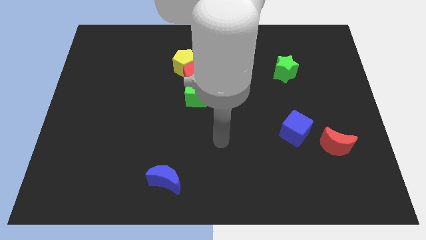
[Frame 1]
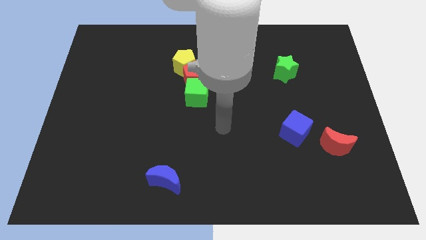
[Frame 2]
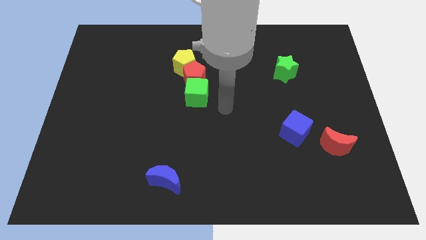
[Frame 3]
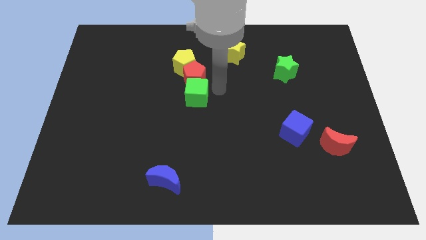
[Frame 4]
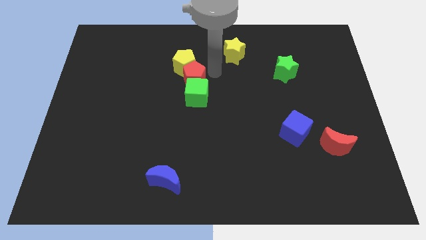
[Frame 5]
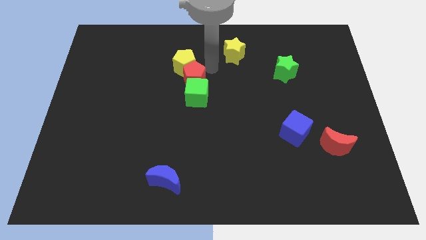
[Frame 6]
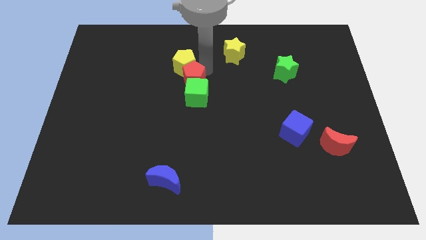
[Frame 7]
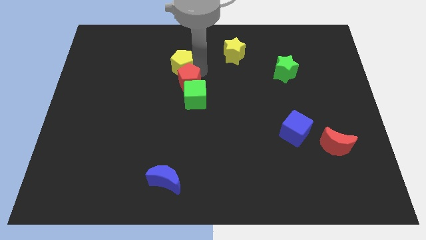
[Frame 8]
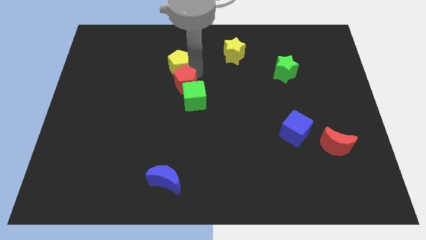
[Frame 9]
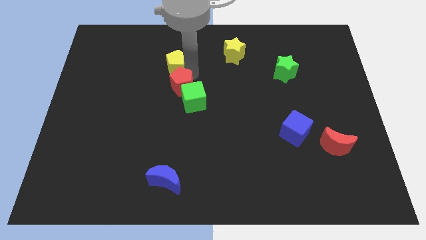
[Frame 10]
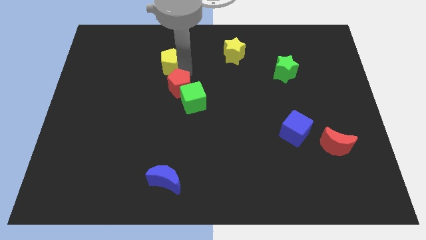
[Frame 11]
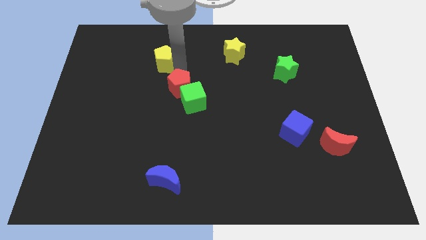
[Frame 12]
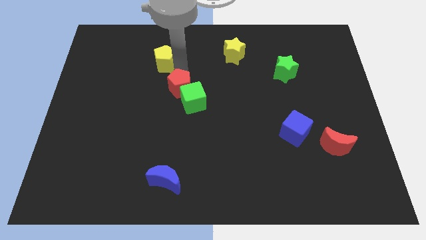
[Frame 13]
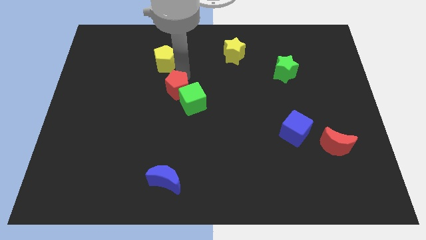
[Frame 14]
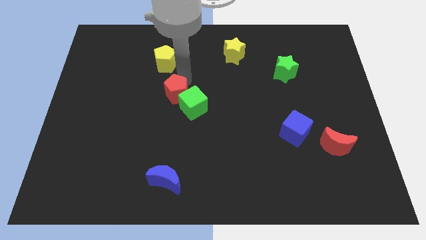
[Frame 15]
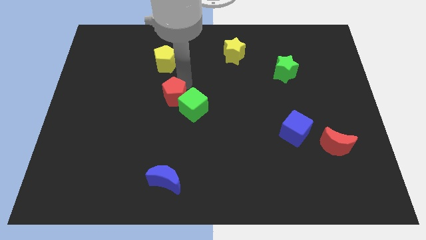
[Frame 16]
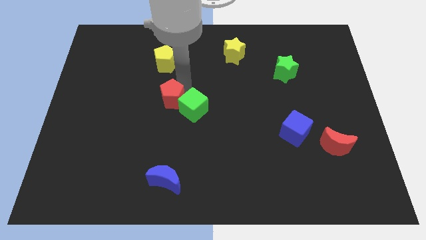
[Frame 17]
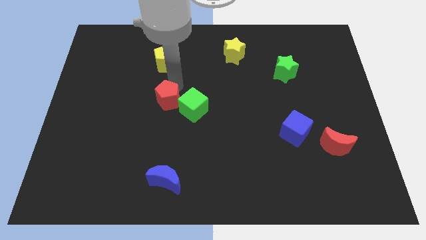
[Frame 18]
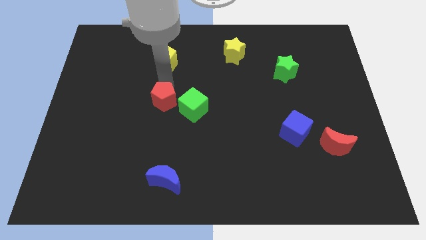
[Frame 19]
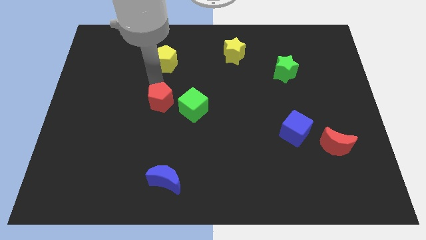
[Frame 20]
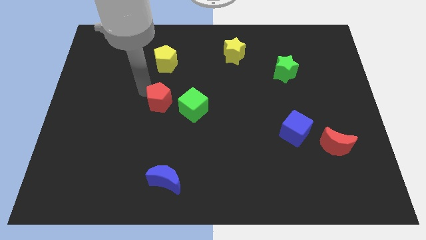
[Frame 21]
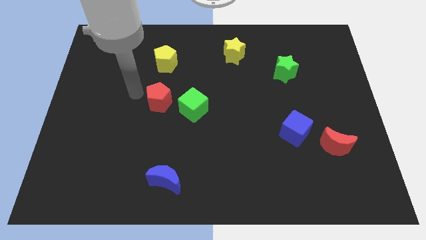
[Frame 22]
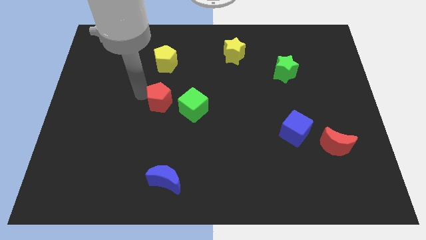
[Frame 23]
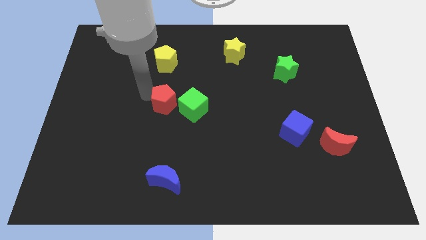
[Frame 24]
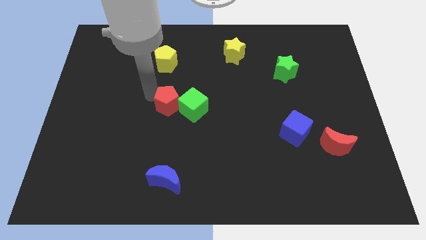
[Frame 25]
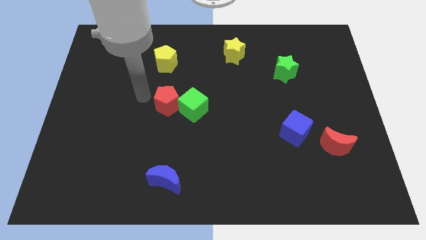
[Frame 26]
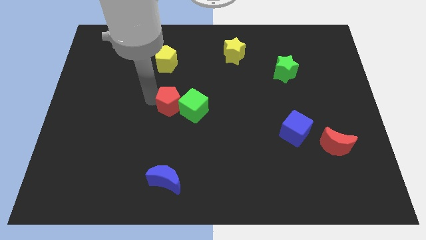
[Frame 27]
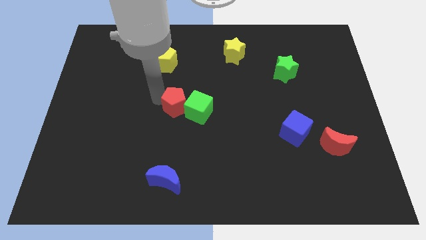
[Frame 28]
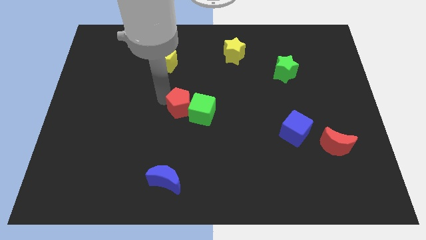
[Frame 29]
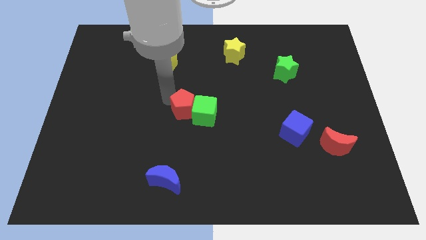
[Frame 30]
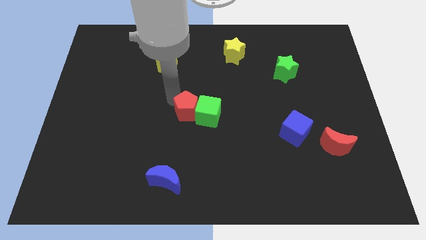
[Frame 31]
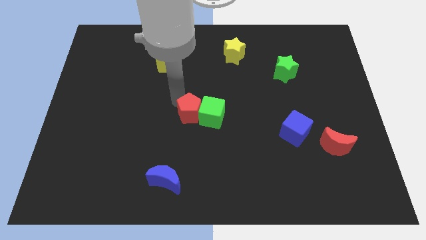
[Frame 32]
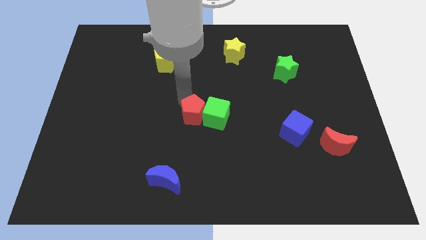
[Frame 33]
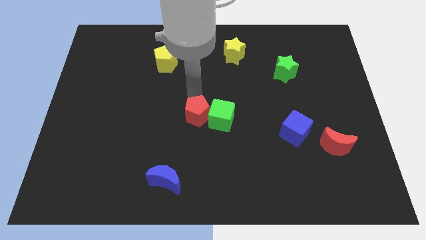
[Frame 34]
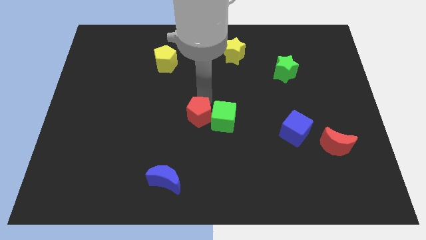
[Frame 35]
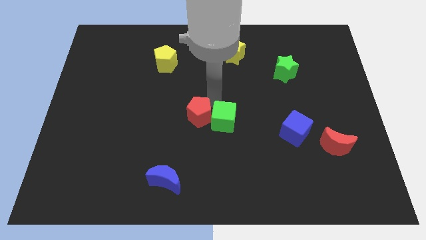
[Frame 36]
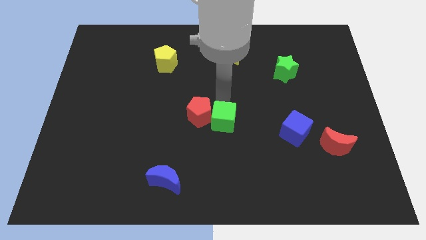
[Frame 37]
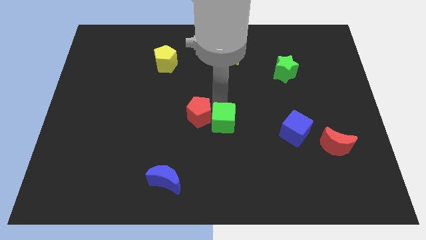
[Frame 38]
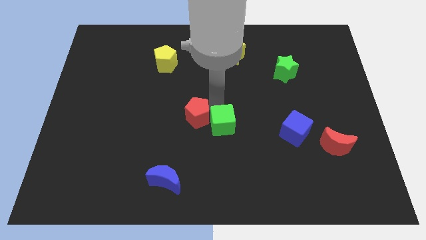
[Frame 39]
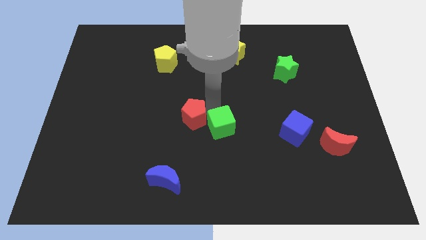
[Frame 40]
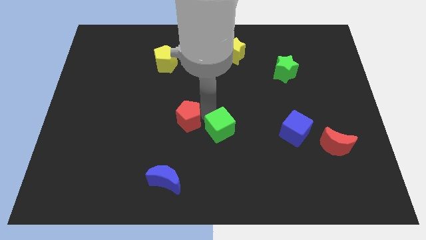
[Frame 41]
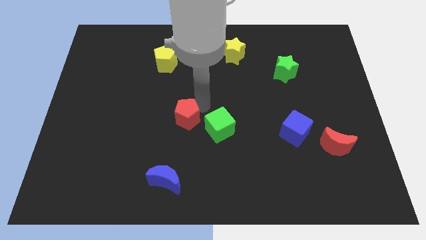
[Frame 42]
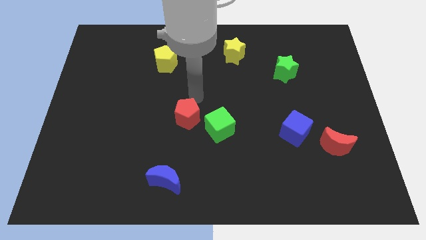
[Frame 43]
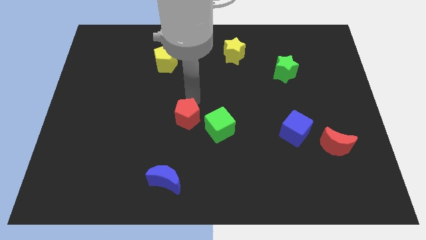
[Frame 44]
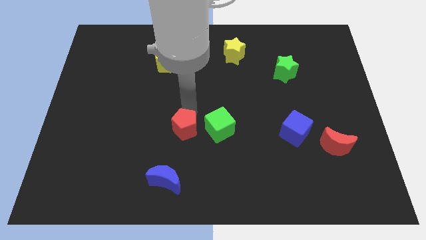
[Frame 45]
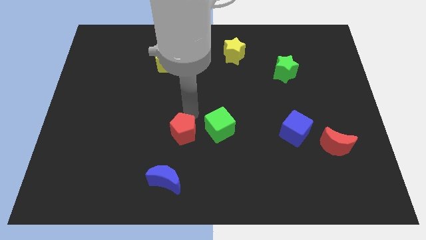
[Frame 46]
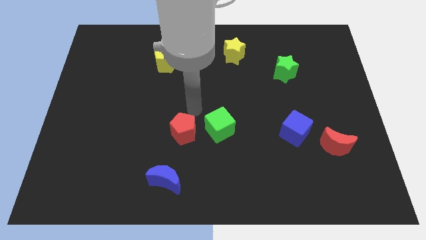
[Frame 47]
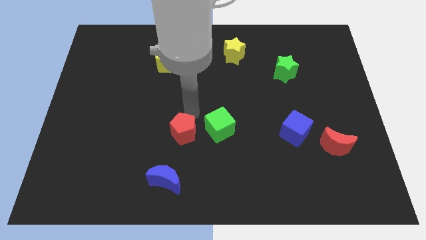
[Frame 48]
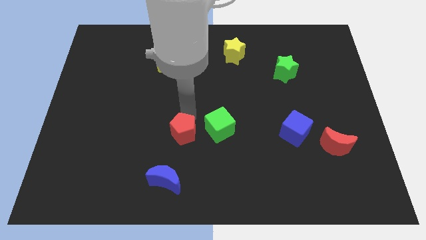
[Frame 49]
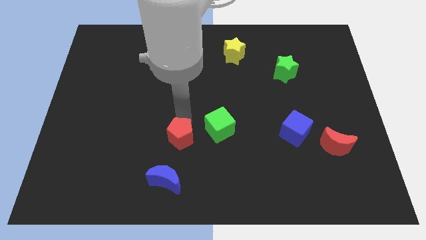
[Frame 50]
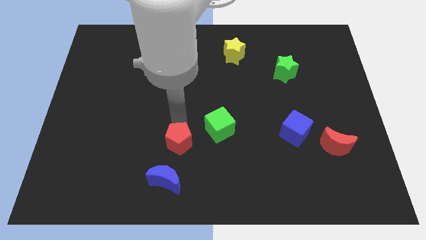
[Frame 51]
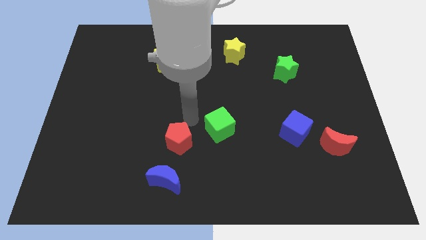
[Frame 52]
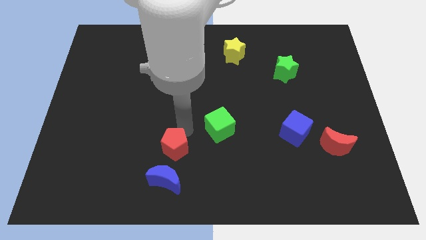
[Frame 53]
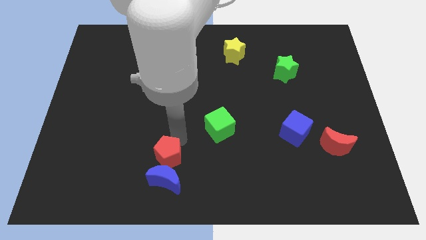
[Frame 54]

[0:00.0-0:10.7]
push the red pentagon next to the blue moon

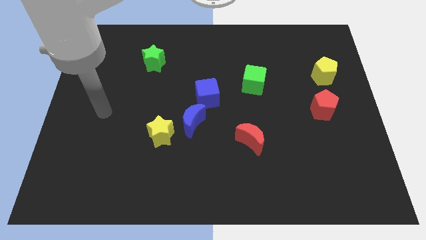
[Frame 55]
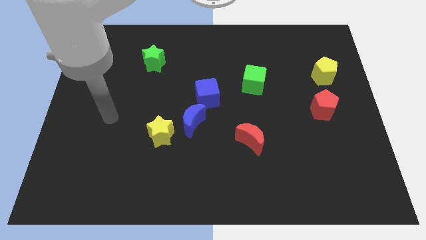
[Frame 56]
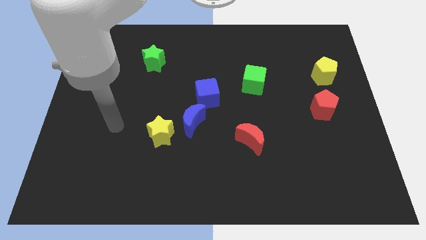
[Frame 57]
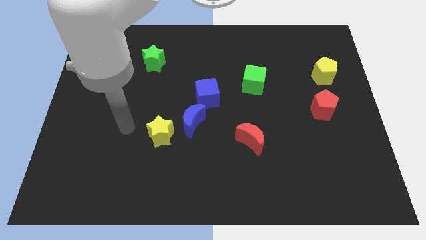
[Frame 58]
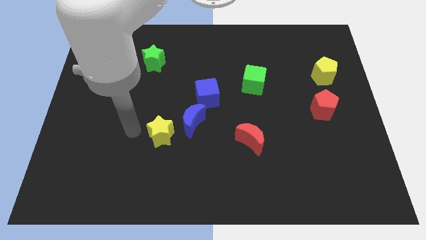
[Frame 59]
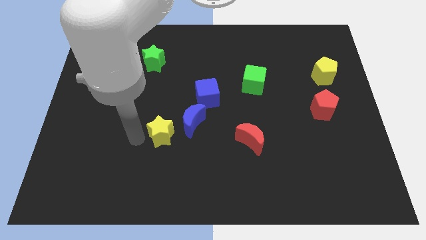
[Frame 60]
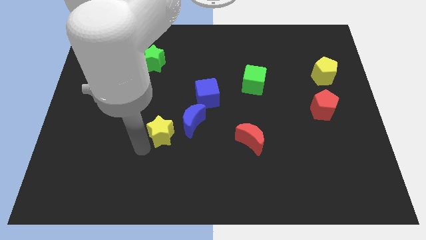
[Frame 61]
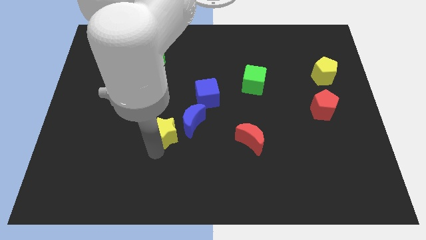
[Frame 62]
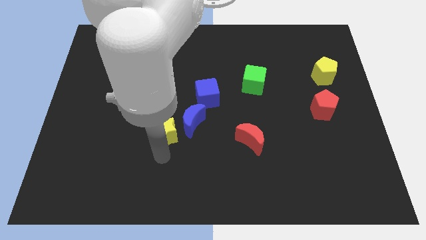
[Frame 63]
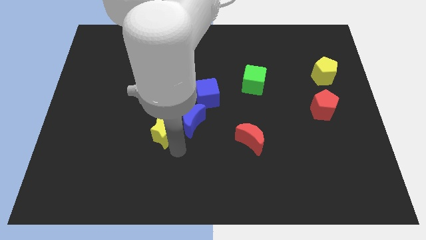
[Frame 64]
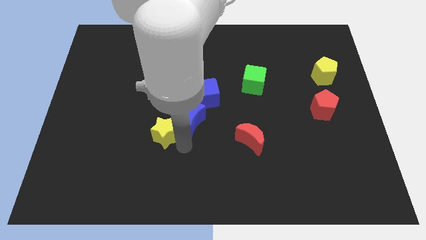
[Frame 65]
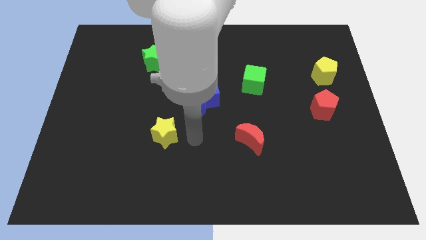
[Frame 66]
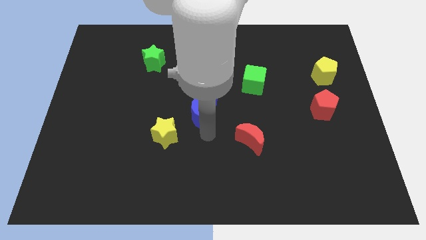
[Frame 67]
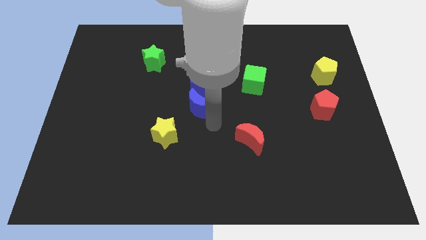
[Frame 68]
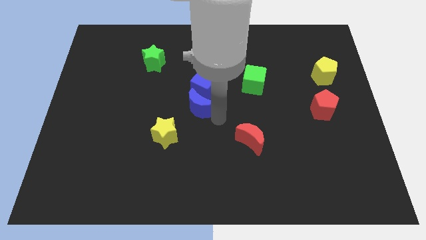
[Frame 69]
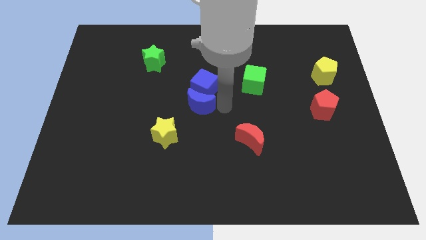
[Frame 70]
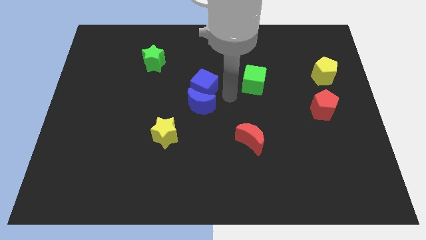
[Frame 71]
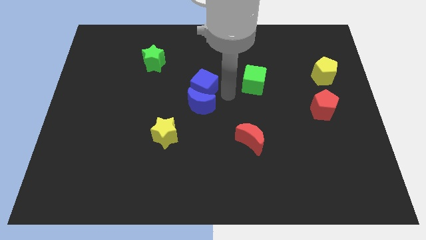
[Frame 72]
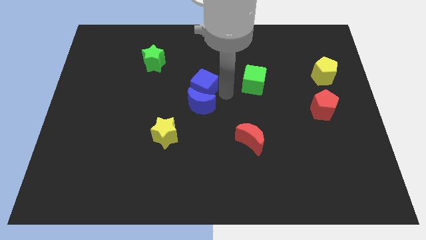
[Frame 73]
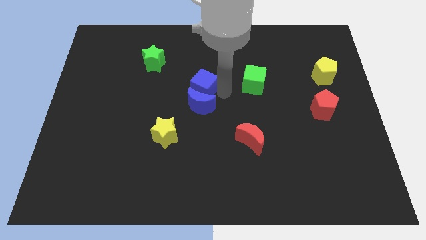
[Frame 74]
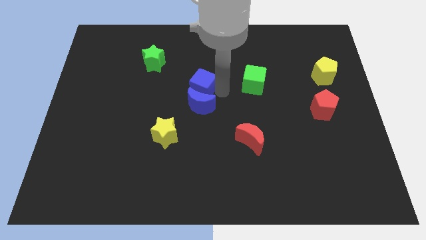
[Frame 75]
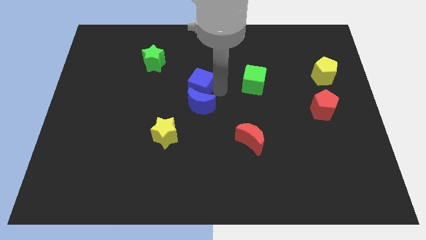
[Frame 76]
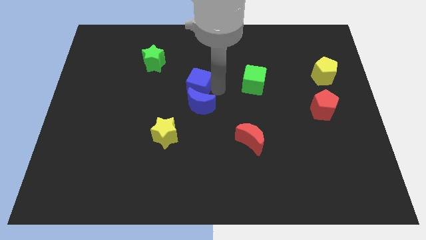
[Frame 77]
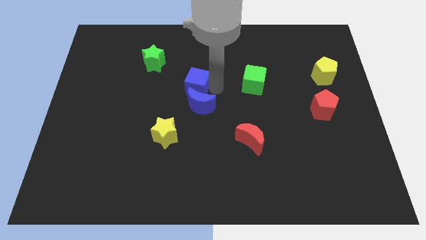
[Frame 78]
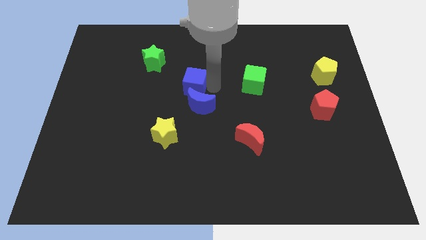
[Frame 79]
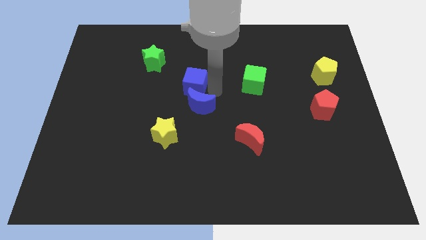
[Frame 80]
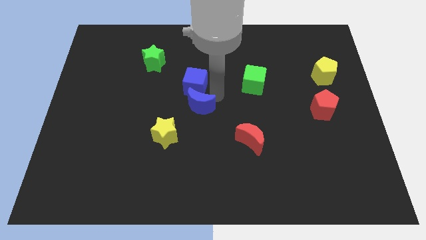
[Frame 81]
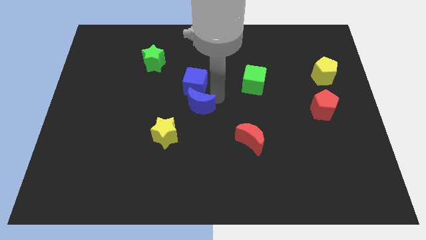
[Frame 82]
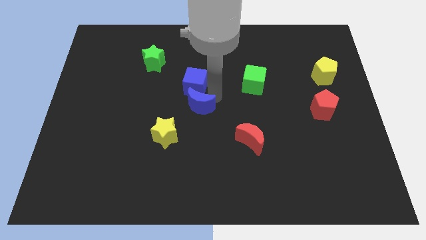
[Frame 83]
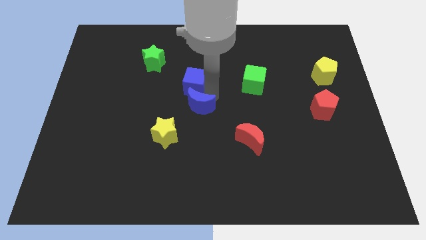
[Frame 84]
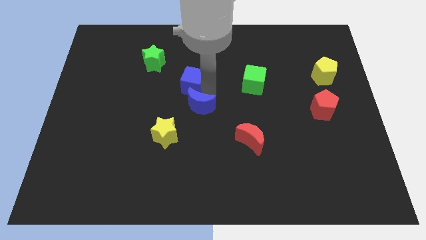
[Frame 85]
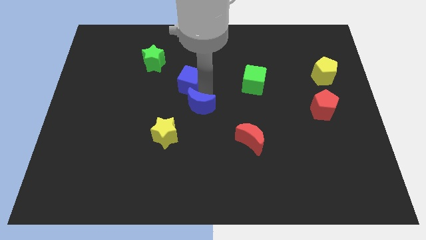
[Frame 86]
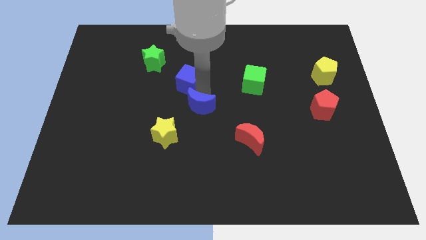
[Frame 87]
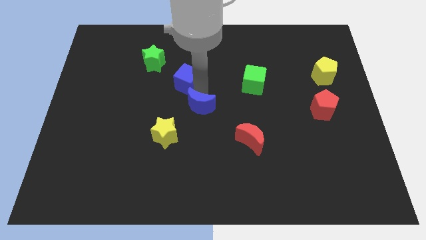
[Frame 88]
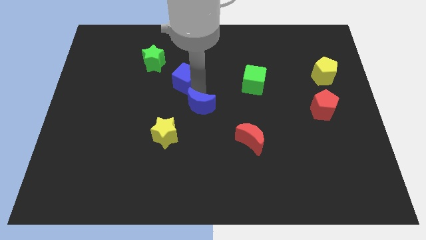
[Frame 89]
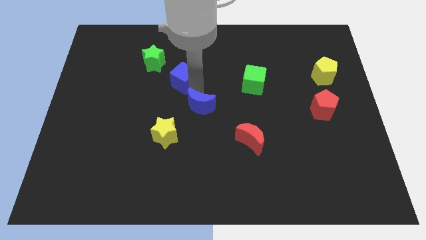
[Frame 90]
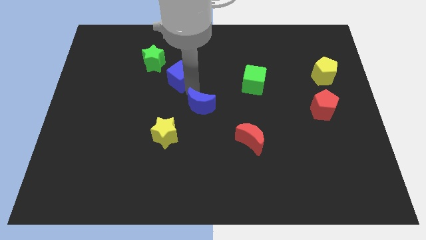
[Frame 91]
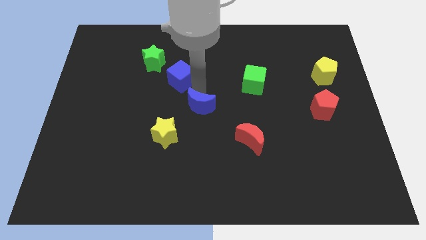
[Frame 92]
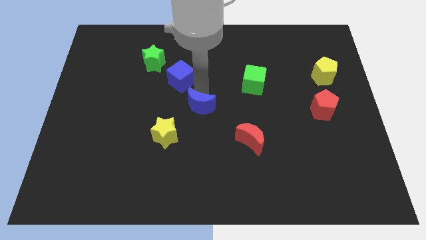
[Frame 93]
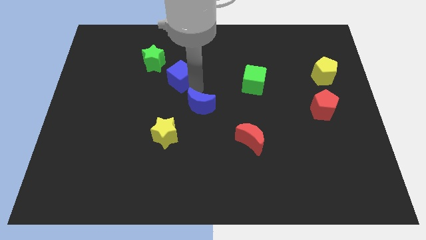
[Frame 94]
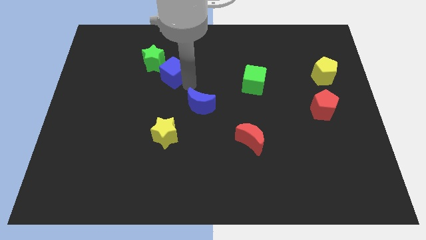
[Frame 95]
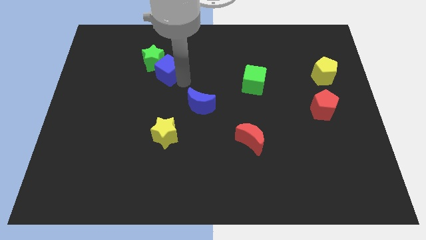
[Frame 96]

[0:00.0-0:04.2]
slide the blue cube next to the green star
